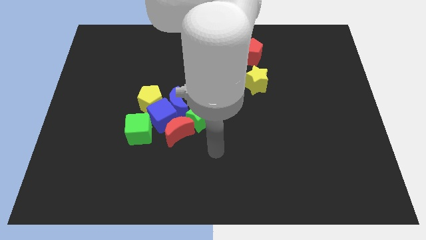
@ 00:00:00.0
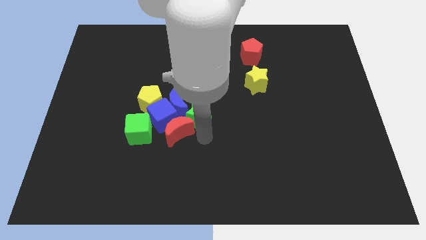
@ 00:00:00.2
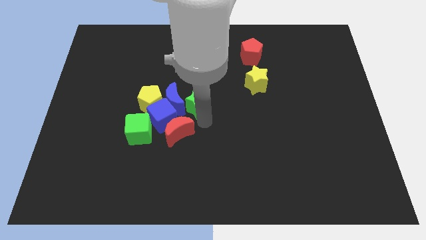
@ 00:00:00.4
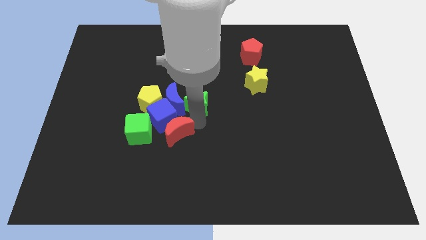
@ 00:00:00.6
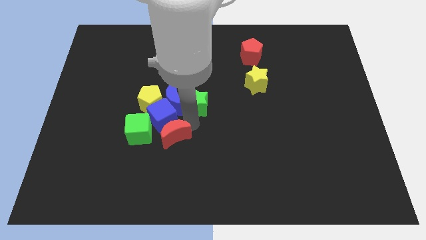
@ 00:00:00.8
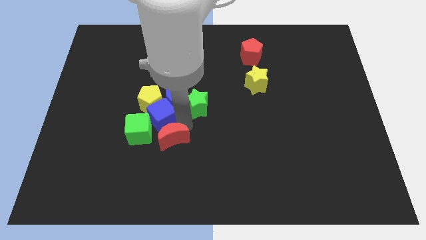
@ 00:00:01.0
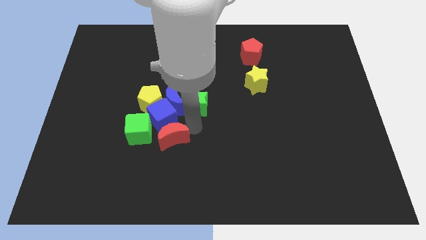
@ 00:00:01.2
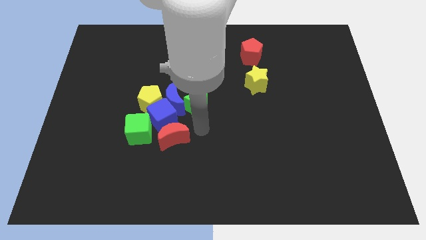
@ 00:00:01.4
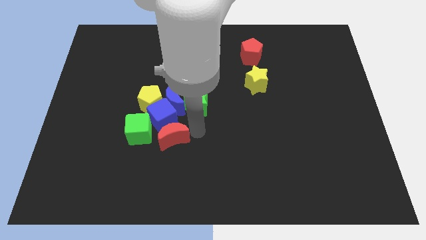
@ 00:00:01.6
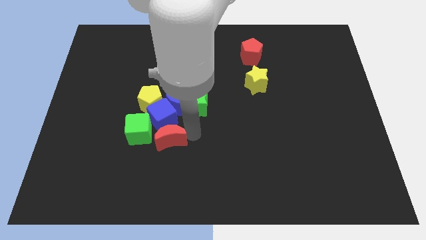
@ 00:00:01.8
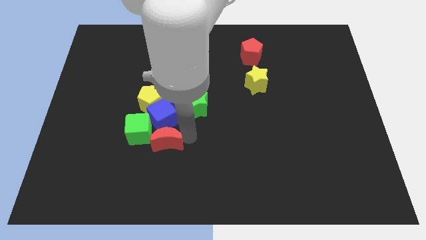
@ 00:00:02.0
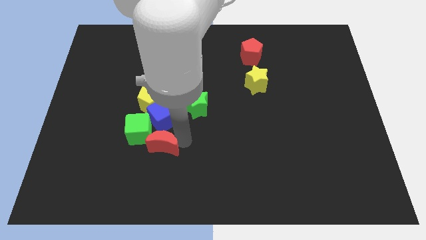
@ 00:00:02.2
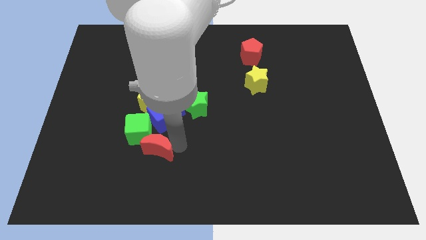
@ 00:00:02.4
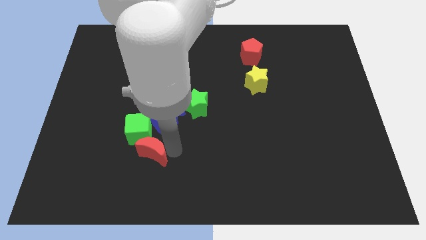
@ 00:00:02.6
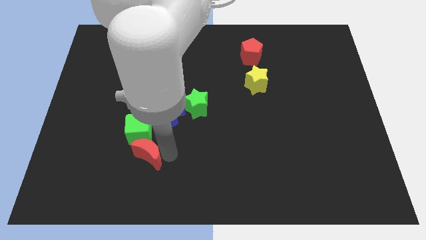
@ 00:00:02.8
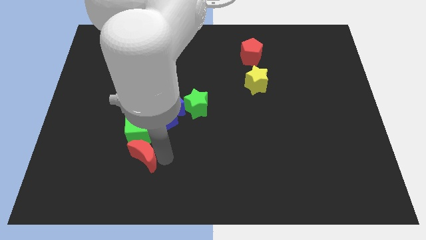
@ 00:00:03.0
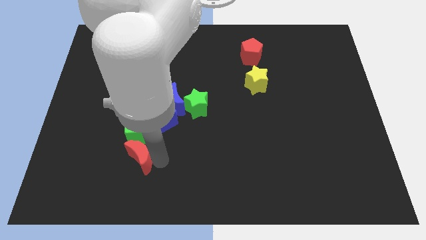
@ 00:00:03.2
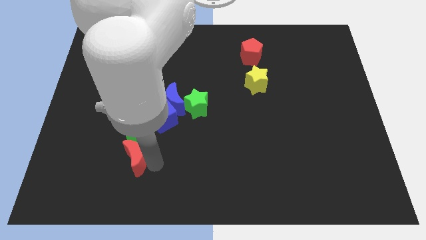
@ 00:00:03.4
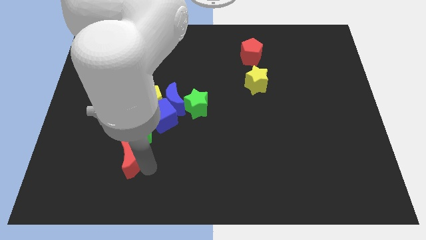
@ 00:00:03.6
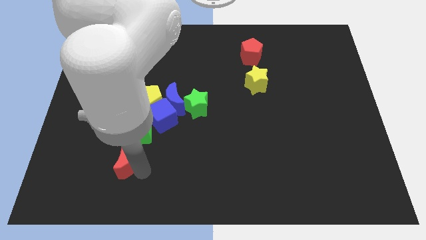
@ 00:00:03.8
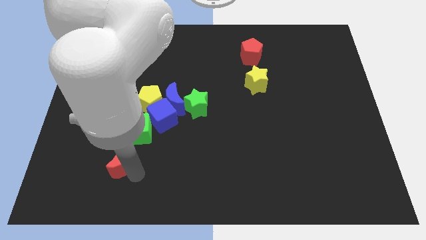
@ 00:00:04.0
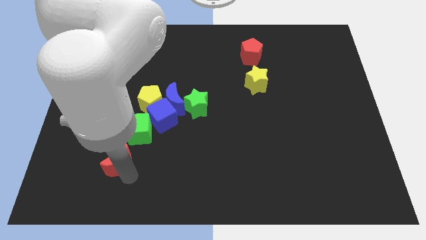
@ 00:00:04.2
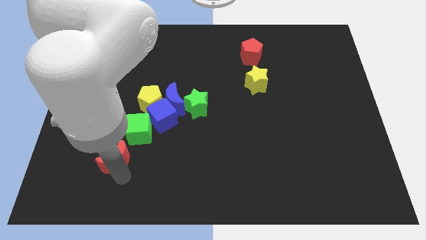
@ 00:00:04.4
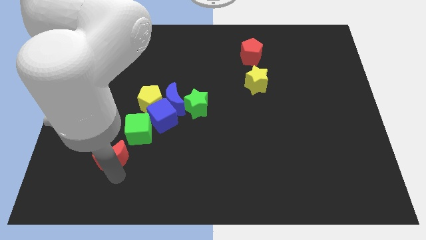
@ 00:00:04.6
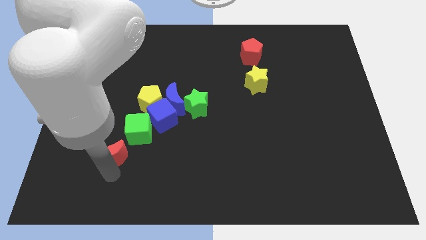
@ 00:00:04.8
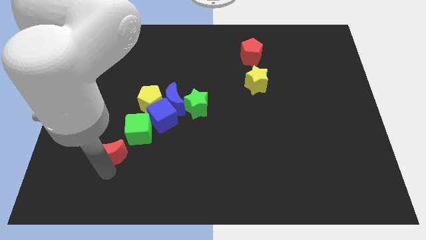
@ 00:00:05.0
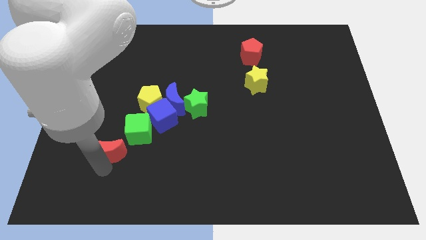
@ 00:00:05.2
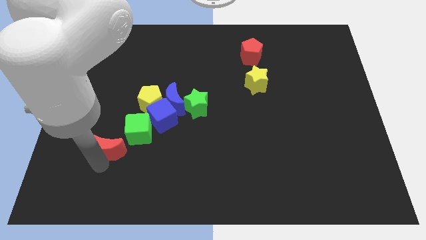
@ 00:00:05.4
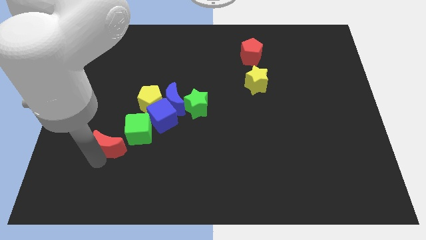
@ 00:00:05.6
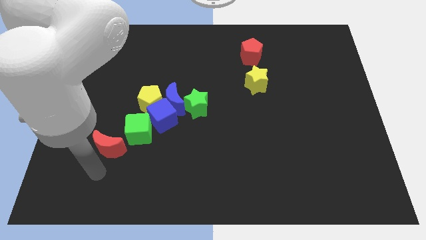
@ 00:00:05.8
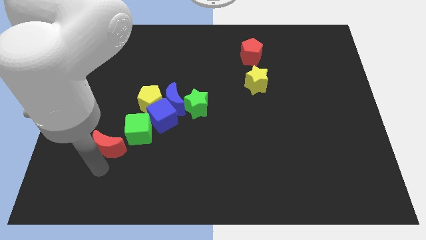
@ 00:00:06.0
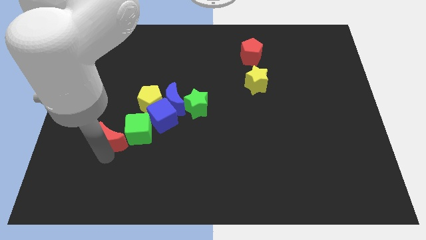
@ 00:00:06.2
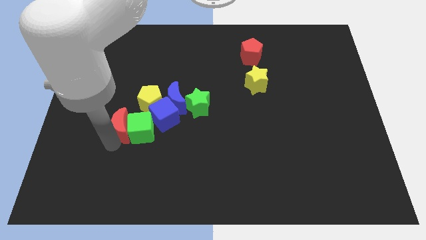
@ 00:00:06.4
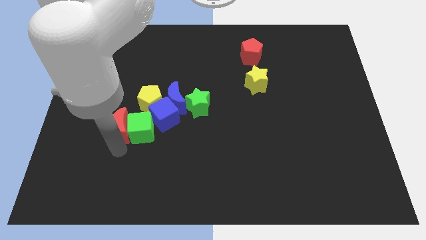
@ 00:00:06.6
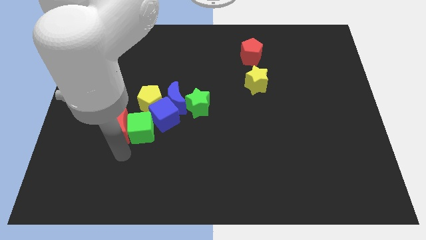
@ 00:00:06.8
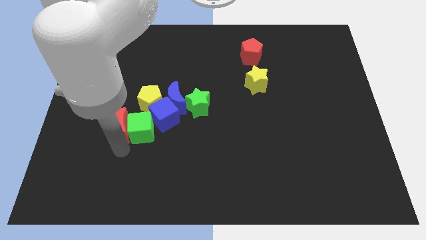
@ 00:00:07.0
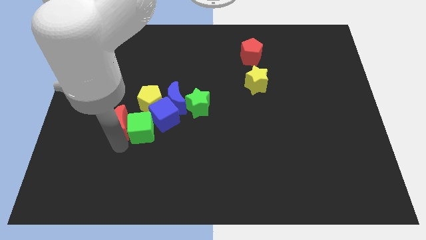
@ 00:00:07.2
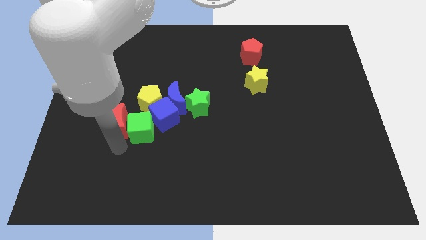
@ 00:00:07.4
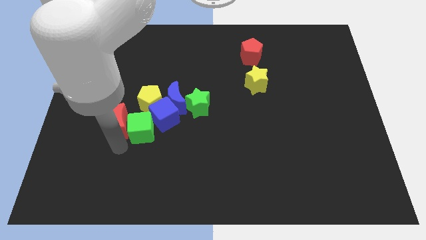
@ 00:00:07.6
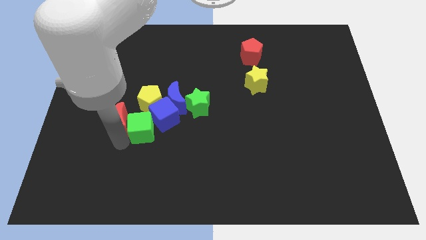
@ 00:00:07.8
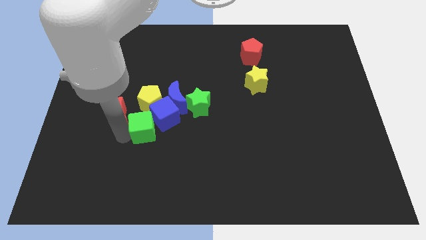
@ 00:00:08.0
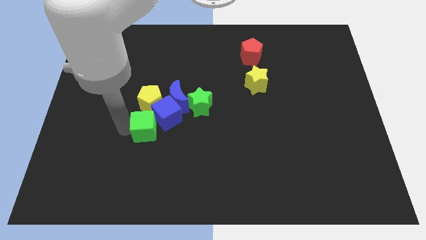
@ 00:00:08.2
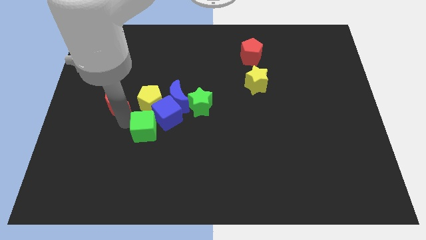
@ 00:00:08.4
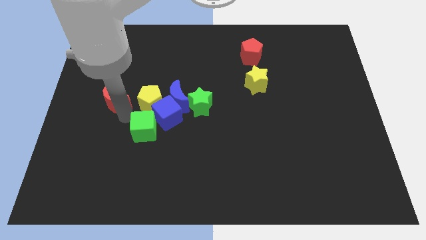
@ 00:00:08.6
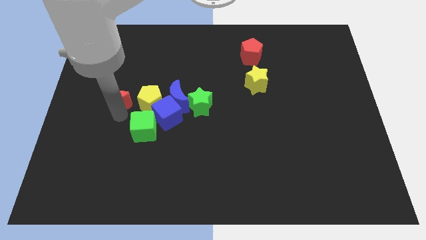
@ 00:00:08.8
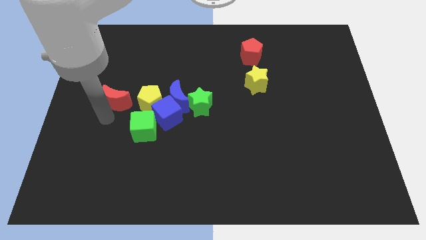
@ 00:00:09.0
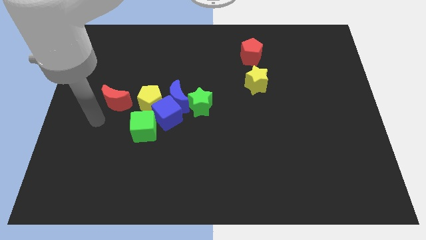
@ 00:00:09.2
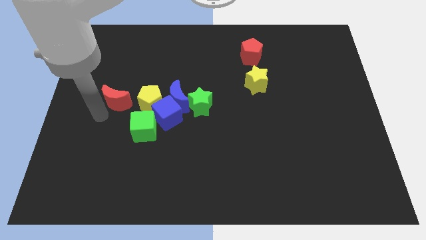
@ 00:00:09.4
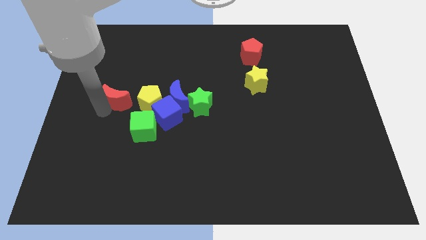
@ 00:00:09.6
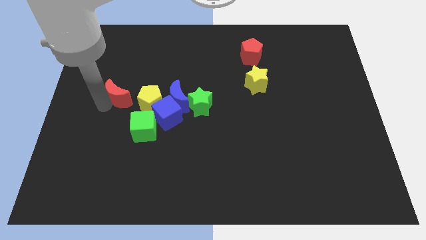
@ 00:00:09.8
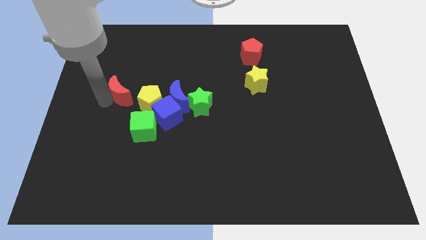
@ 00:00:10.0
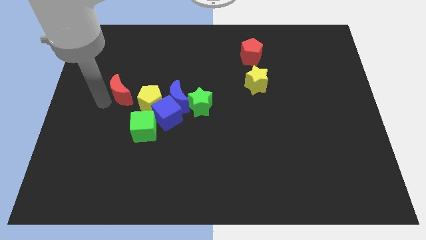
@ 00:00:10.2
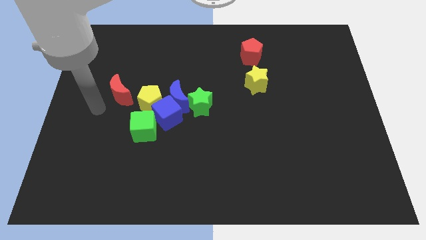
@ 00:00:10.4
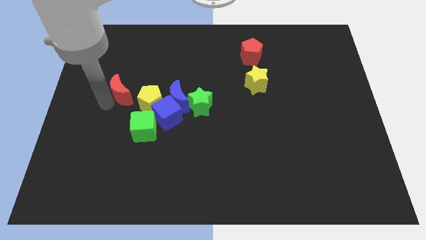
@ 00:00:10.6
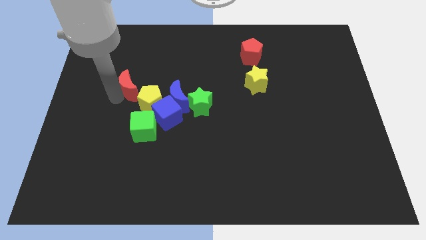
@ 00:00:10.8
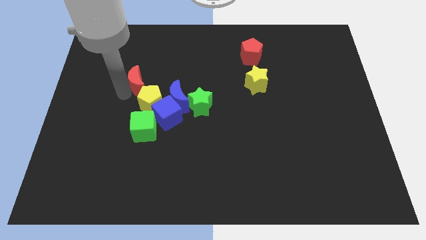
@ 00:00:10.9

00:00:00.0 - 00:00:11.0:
slide the red moon to the top side of the yellow pentagon

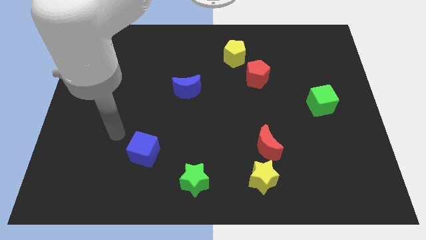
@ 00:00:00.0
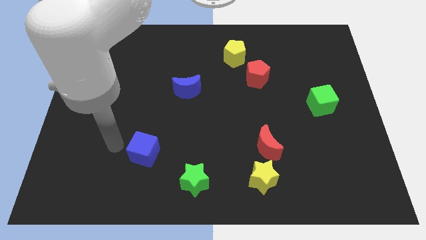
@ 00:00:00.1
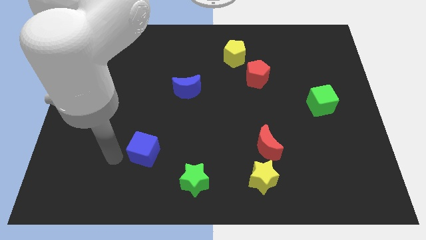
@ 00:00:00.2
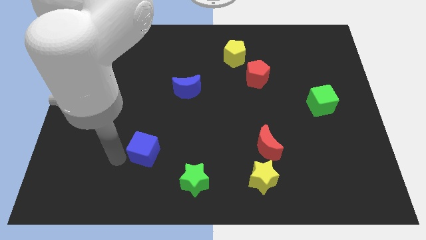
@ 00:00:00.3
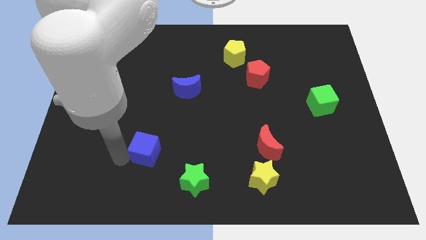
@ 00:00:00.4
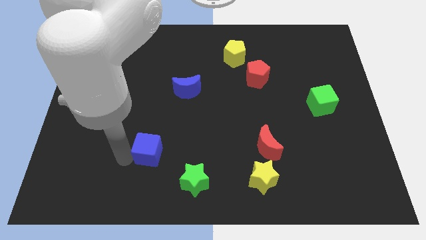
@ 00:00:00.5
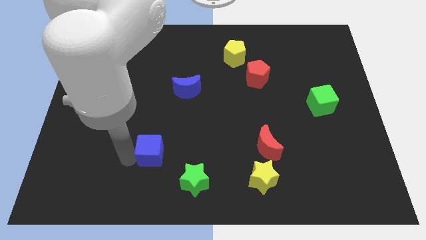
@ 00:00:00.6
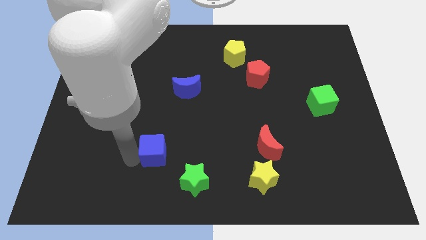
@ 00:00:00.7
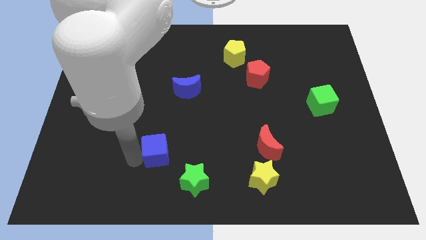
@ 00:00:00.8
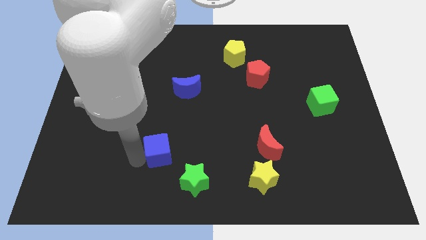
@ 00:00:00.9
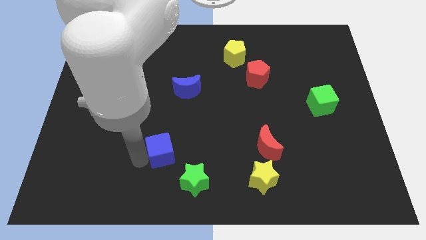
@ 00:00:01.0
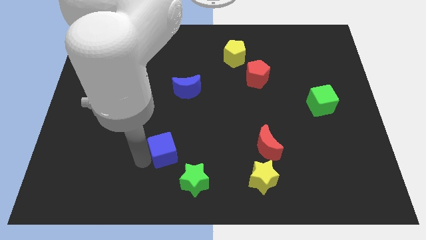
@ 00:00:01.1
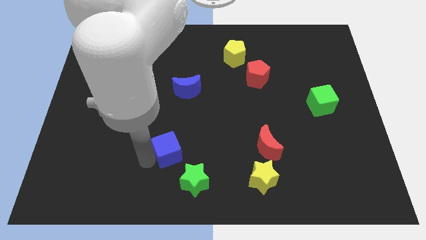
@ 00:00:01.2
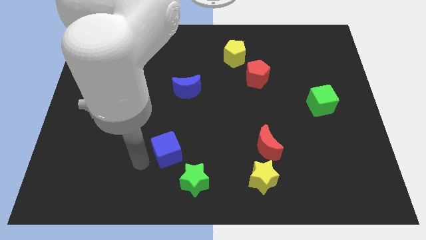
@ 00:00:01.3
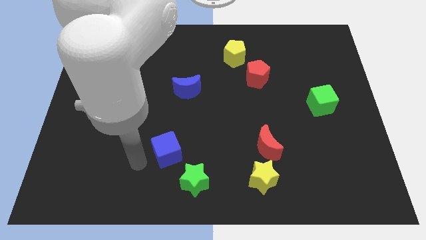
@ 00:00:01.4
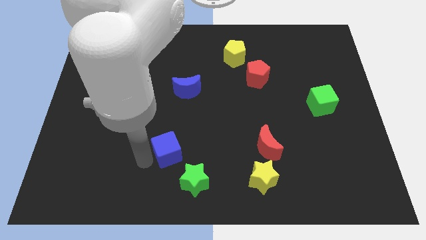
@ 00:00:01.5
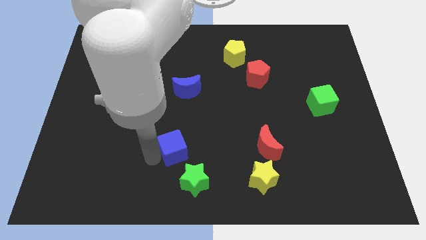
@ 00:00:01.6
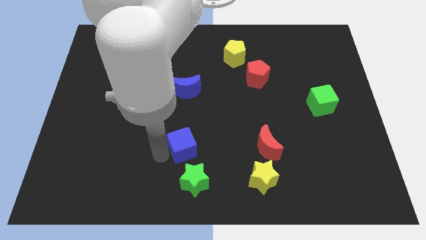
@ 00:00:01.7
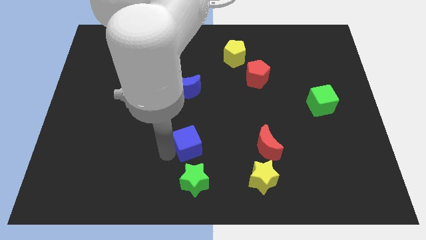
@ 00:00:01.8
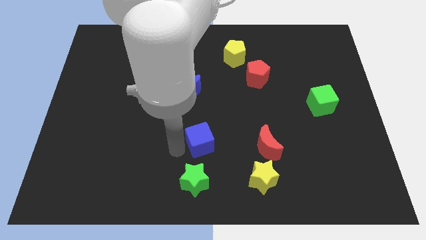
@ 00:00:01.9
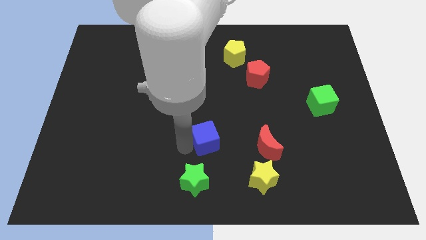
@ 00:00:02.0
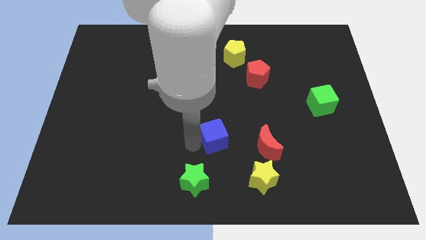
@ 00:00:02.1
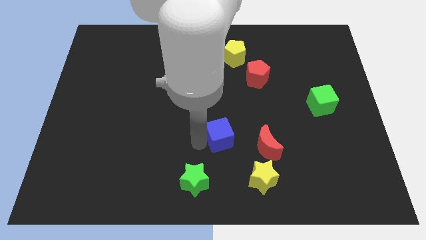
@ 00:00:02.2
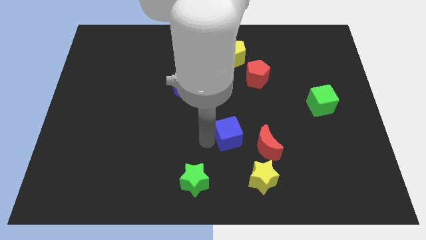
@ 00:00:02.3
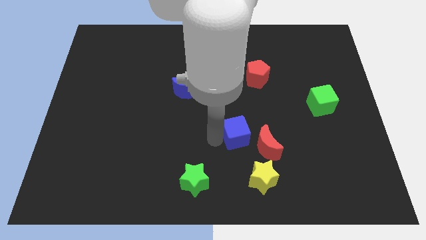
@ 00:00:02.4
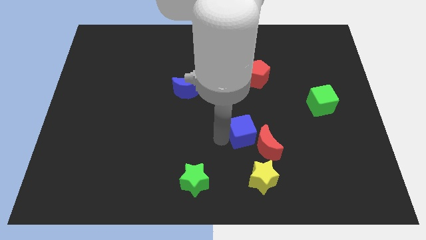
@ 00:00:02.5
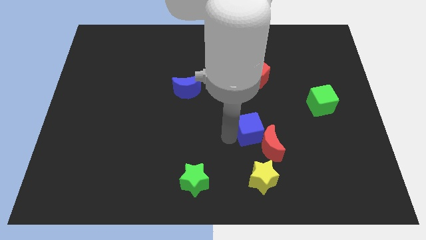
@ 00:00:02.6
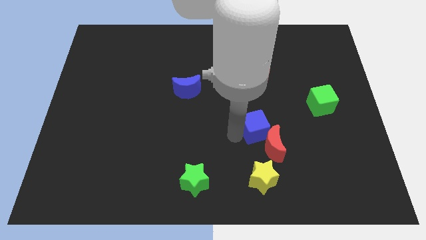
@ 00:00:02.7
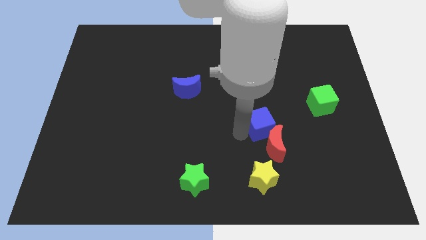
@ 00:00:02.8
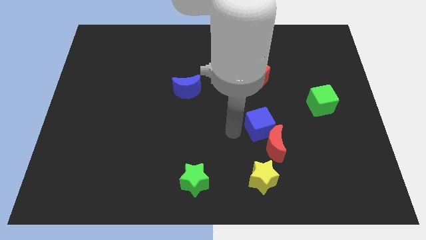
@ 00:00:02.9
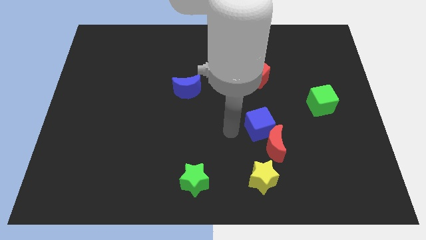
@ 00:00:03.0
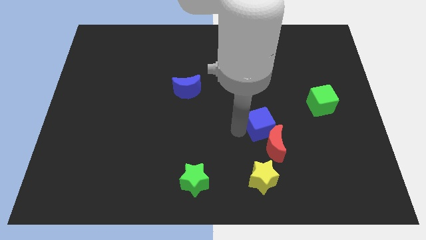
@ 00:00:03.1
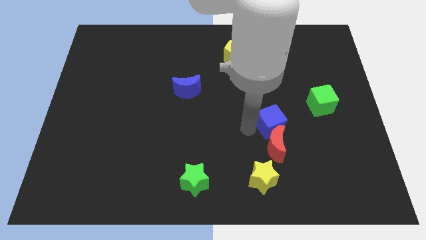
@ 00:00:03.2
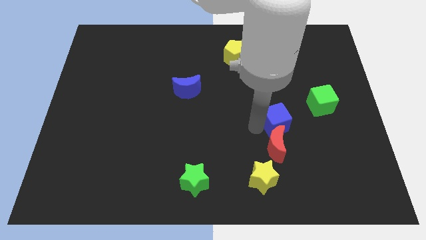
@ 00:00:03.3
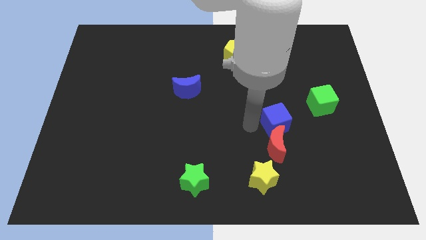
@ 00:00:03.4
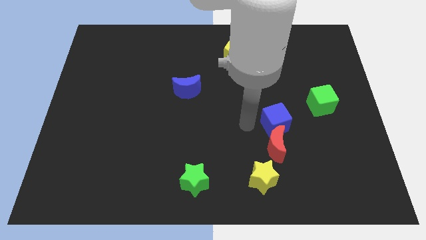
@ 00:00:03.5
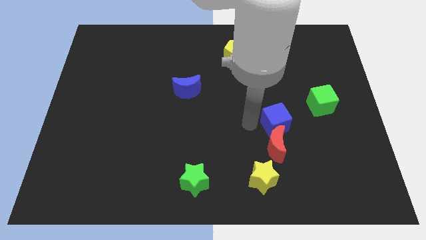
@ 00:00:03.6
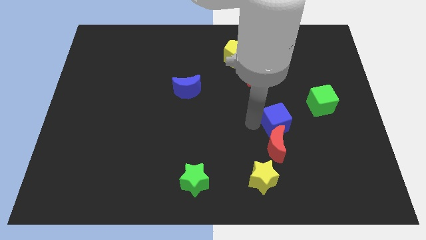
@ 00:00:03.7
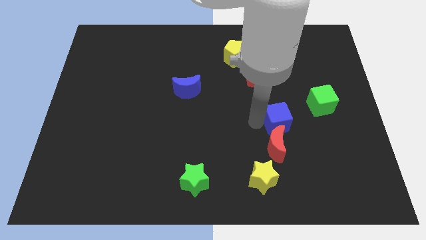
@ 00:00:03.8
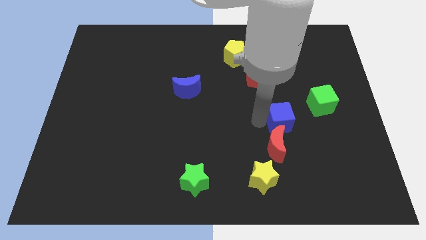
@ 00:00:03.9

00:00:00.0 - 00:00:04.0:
move the blue cube to the bottom left side of the green cube
